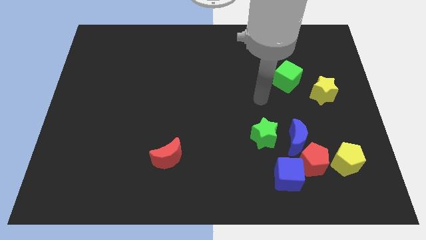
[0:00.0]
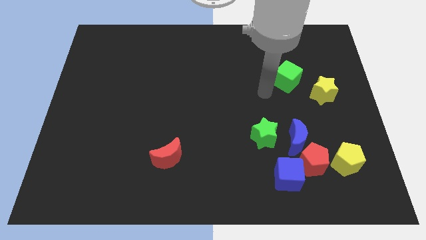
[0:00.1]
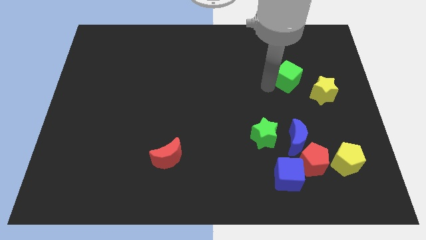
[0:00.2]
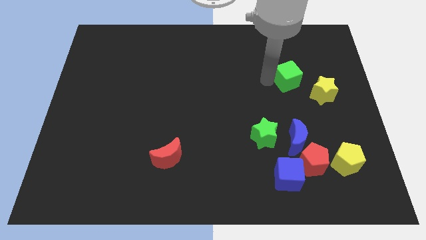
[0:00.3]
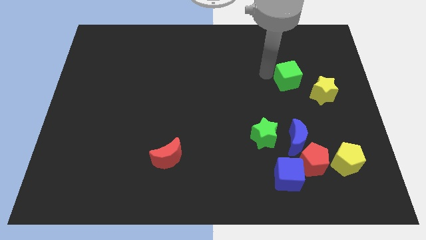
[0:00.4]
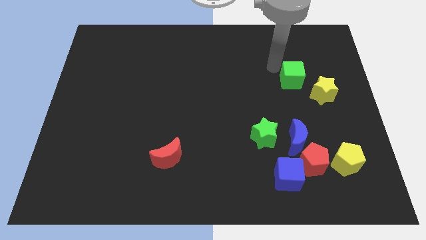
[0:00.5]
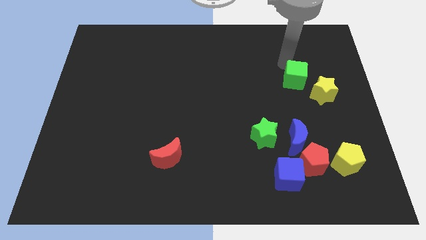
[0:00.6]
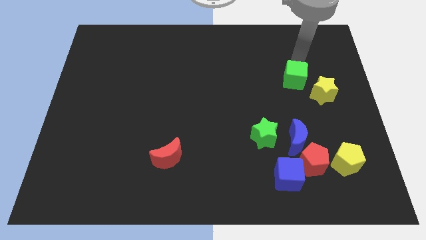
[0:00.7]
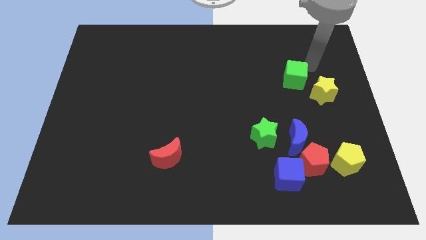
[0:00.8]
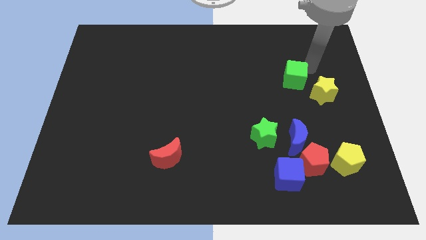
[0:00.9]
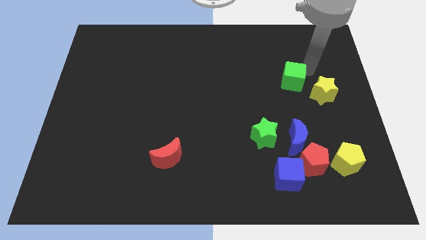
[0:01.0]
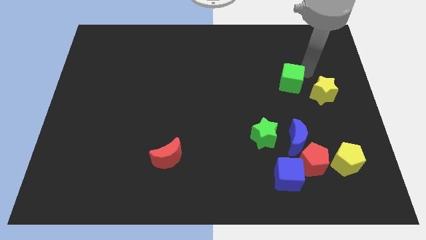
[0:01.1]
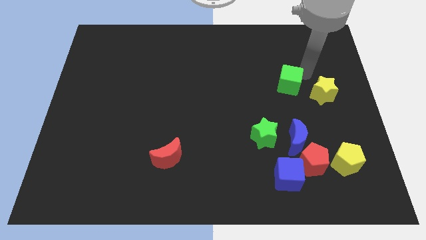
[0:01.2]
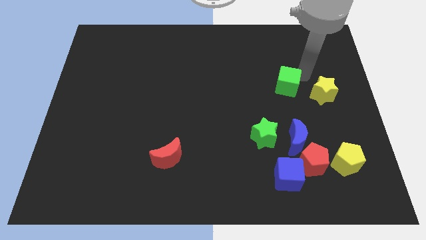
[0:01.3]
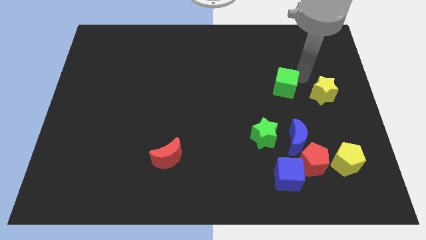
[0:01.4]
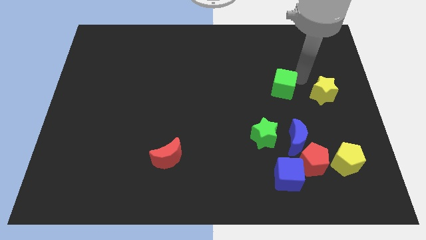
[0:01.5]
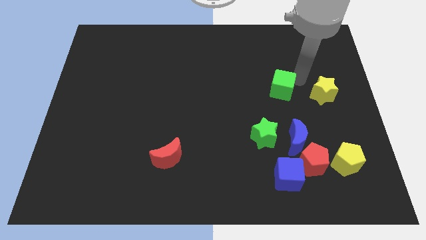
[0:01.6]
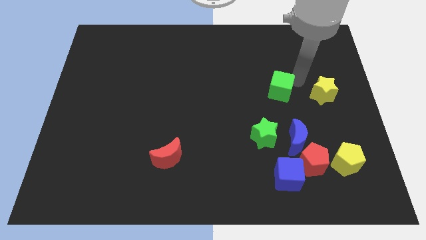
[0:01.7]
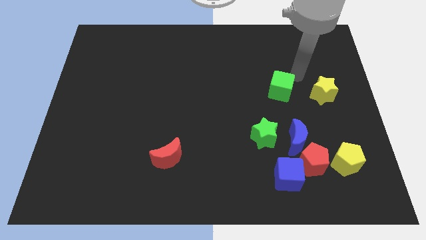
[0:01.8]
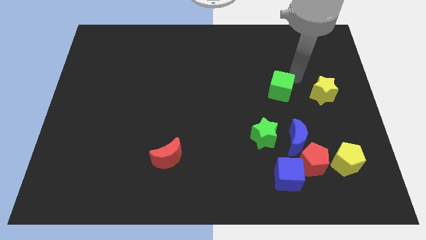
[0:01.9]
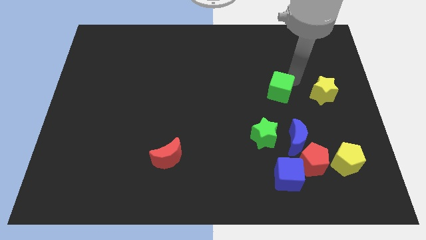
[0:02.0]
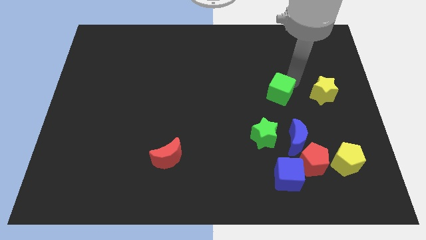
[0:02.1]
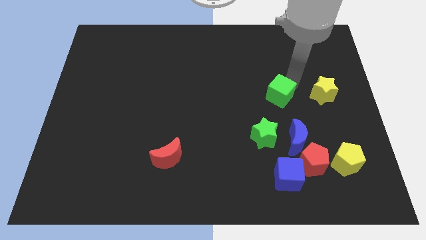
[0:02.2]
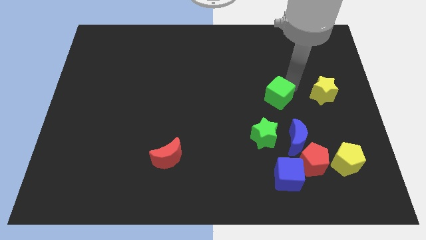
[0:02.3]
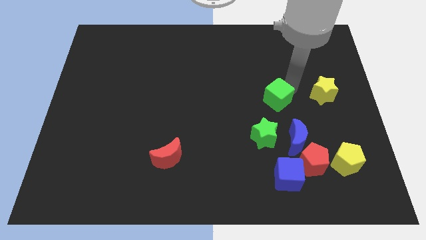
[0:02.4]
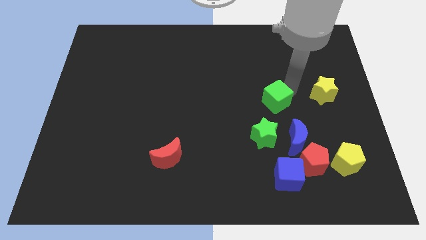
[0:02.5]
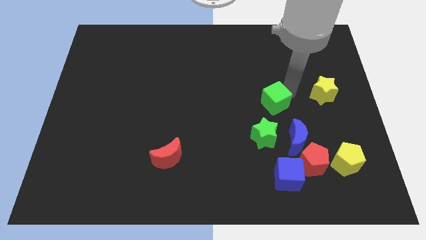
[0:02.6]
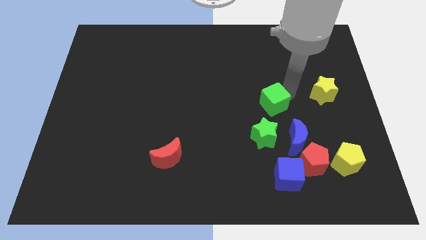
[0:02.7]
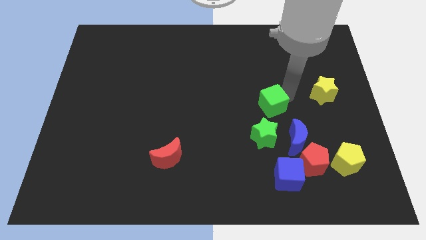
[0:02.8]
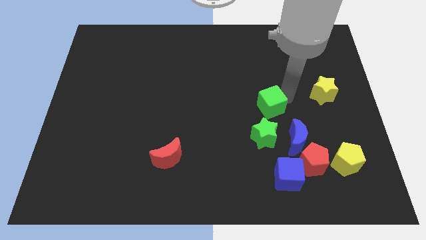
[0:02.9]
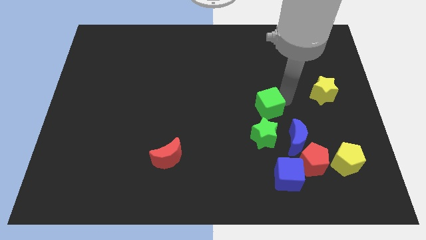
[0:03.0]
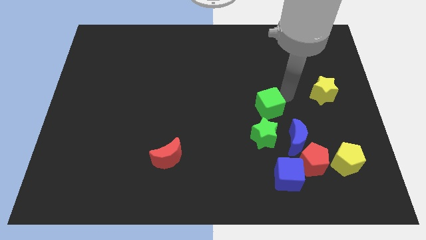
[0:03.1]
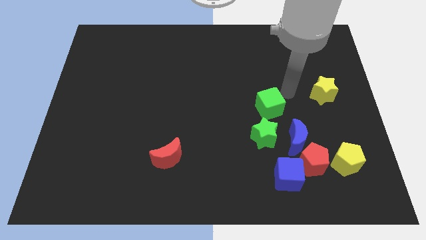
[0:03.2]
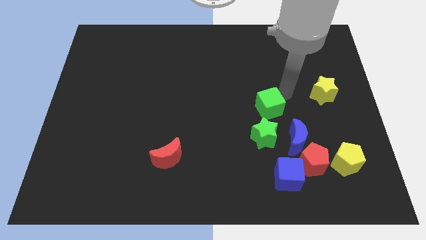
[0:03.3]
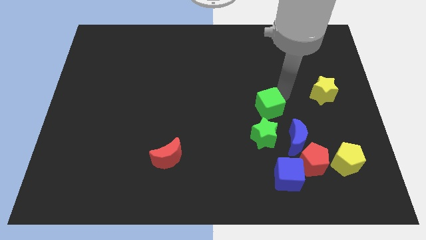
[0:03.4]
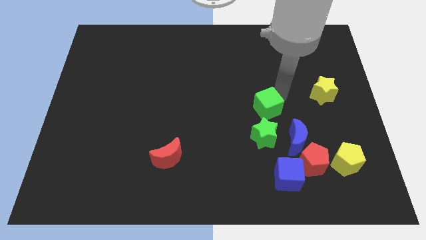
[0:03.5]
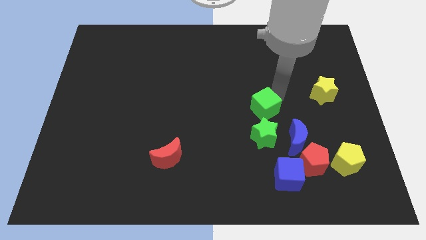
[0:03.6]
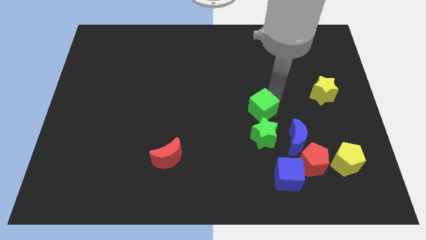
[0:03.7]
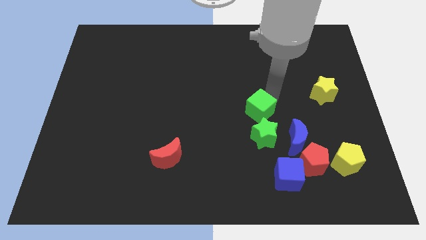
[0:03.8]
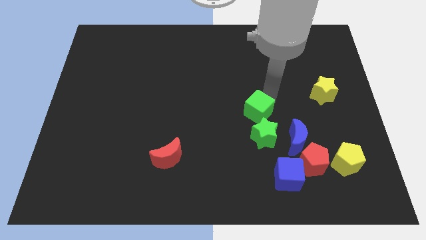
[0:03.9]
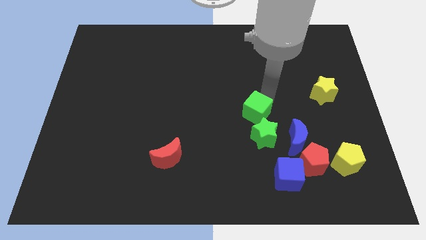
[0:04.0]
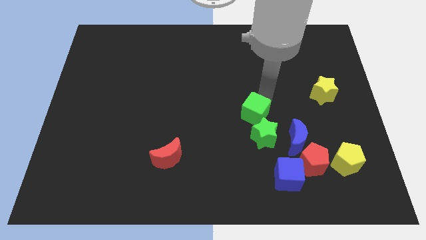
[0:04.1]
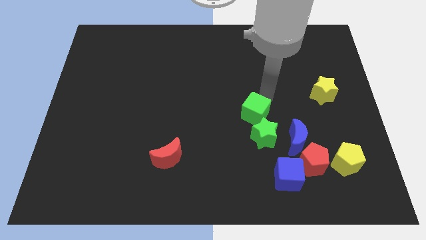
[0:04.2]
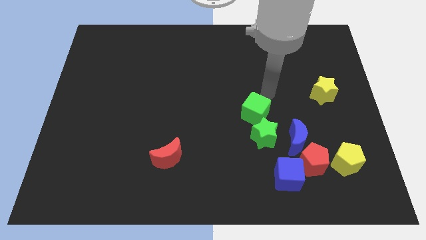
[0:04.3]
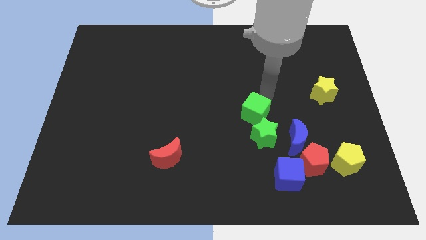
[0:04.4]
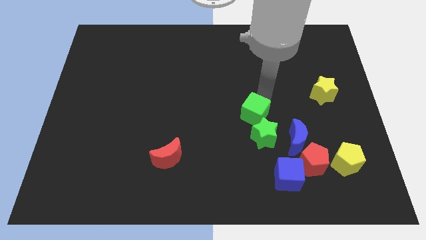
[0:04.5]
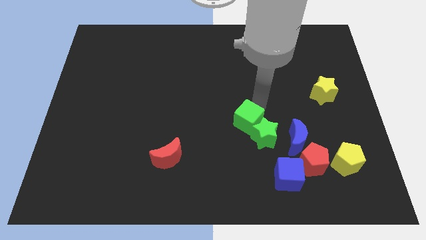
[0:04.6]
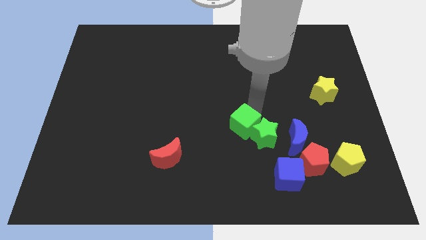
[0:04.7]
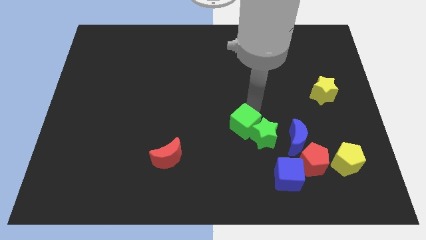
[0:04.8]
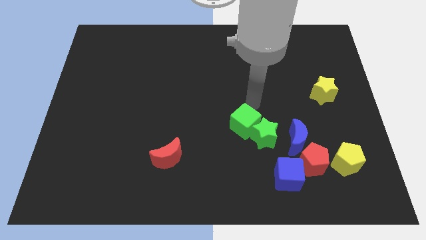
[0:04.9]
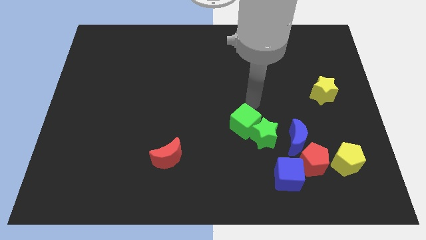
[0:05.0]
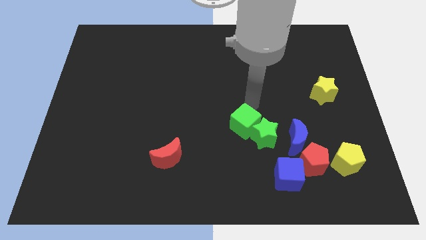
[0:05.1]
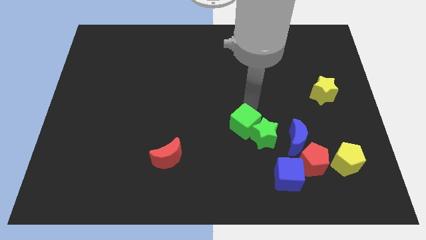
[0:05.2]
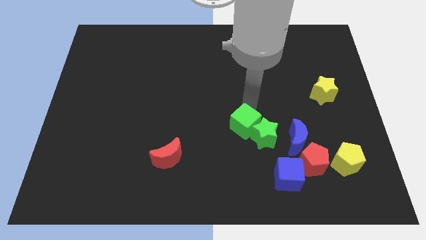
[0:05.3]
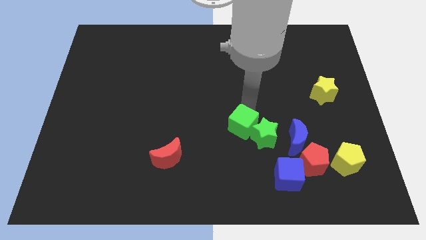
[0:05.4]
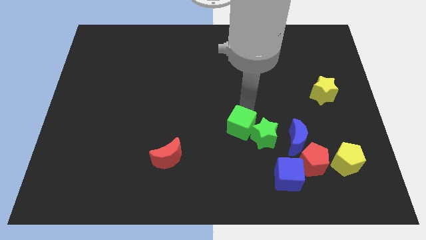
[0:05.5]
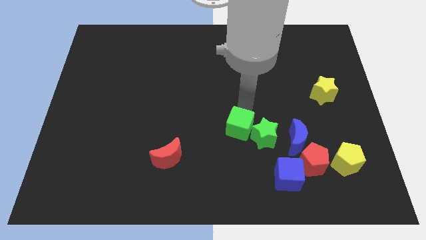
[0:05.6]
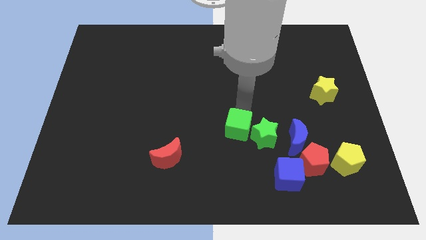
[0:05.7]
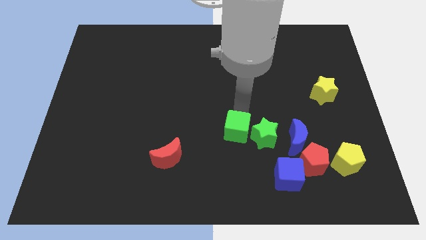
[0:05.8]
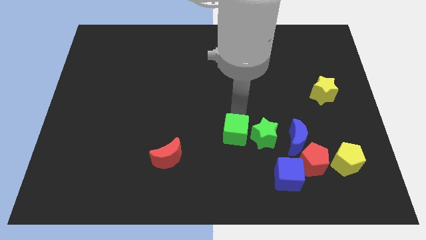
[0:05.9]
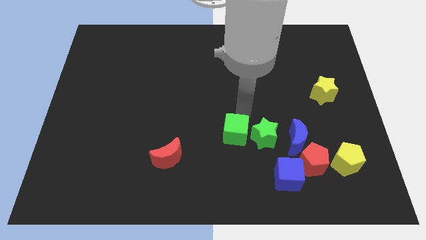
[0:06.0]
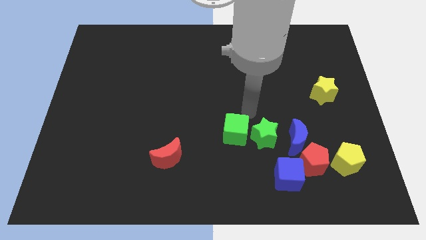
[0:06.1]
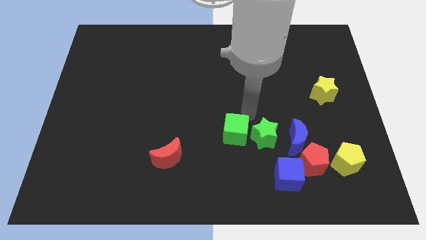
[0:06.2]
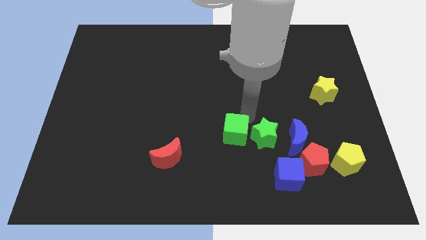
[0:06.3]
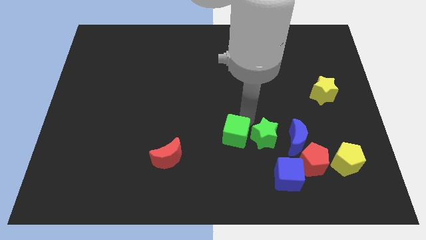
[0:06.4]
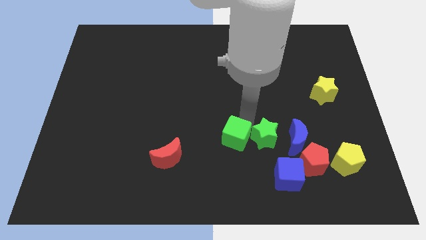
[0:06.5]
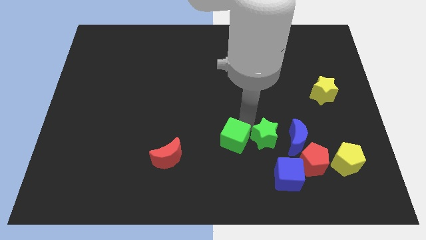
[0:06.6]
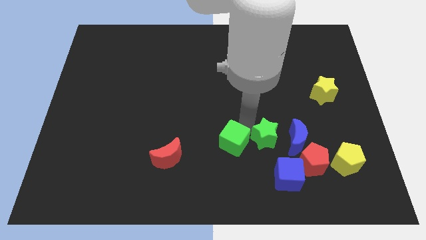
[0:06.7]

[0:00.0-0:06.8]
put the green cube to the right of the red moon
